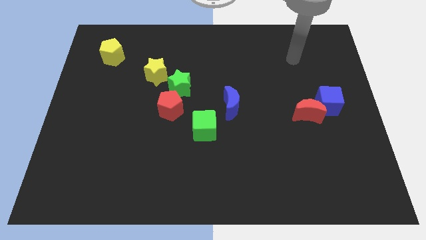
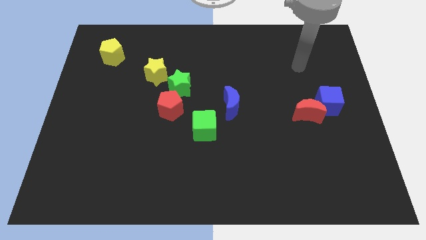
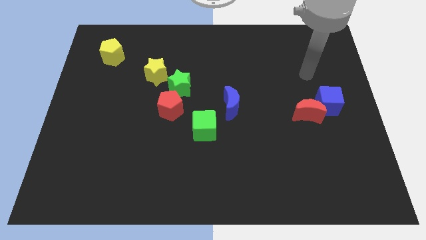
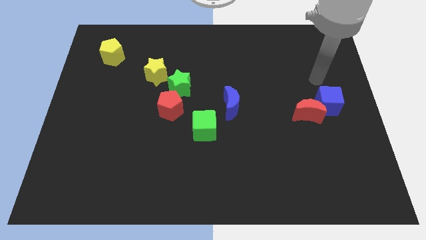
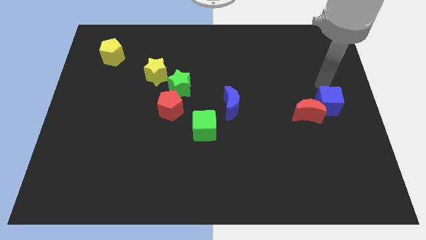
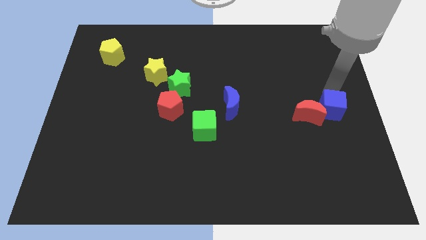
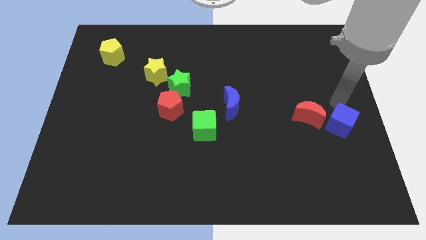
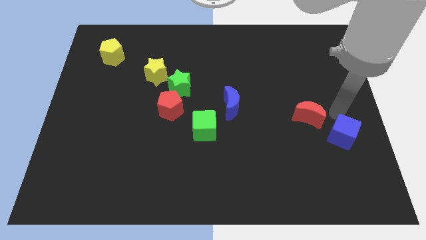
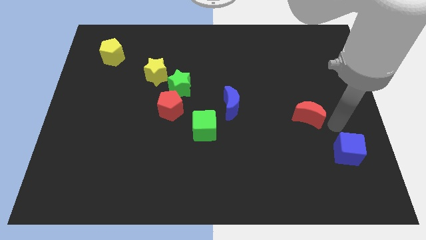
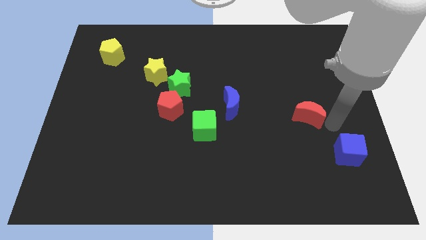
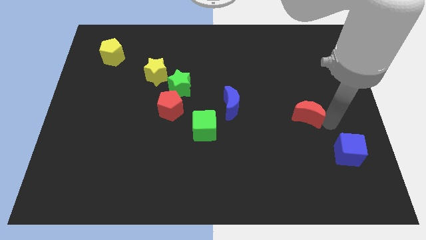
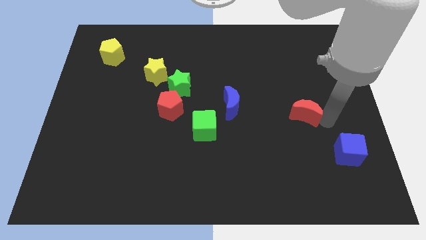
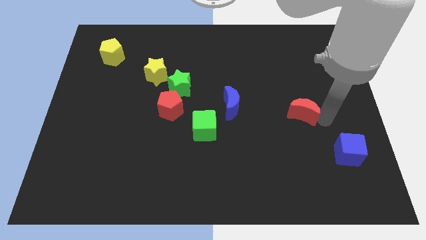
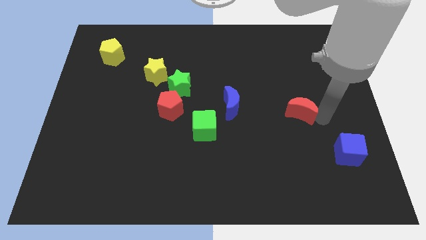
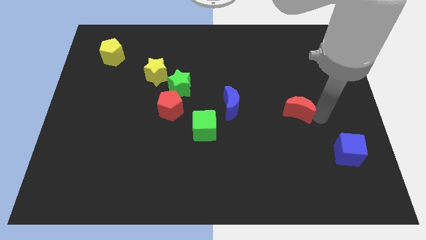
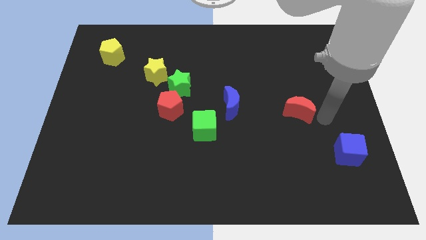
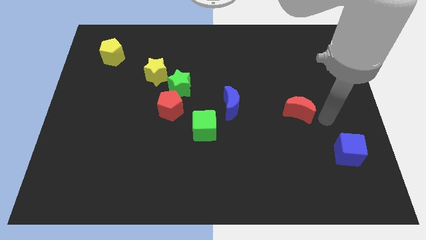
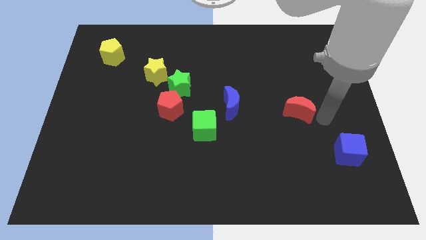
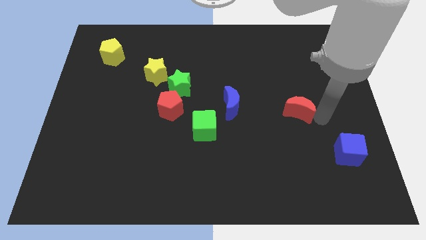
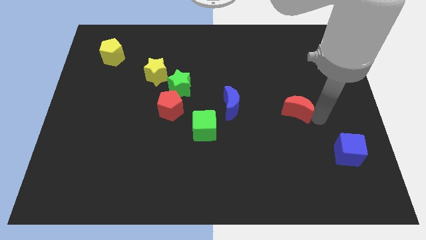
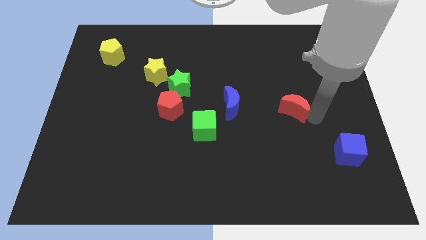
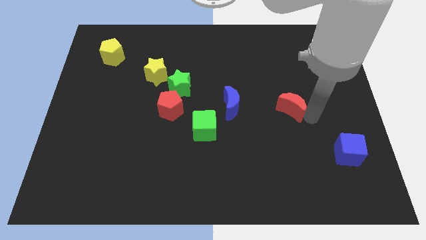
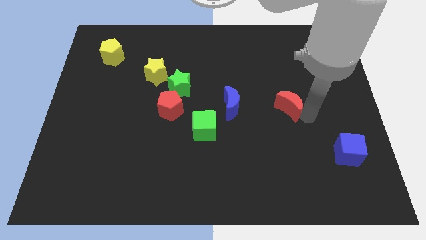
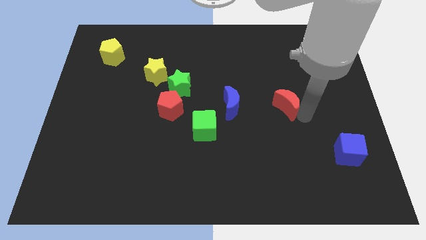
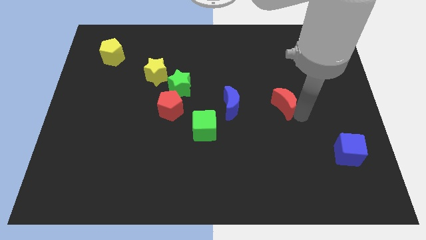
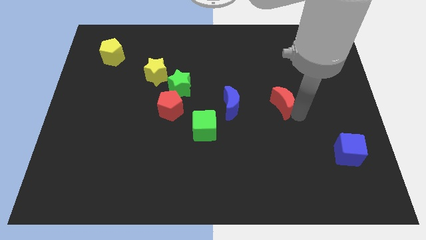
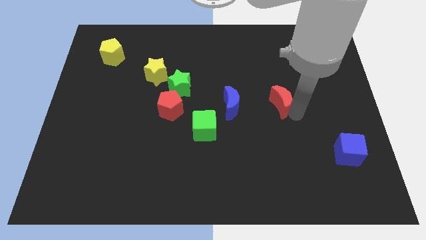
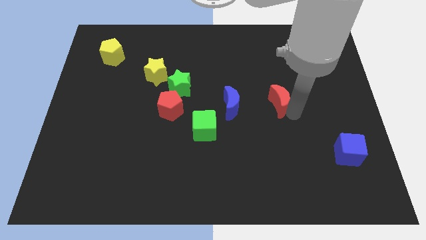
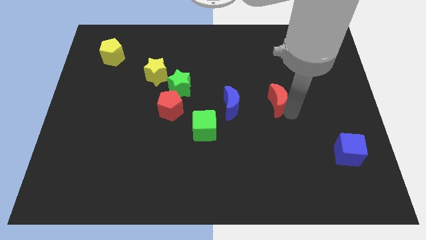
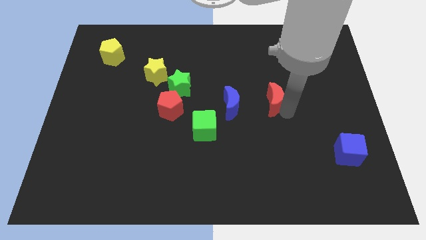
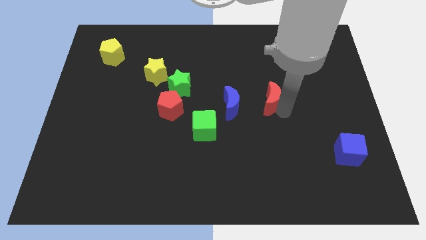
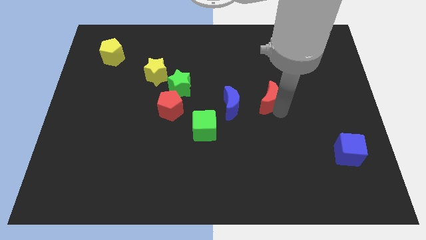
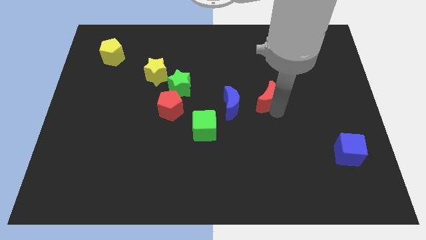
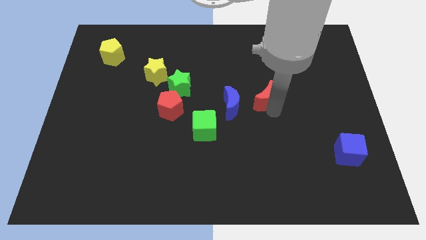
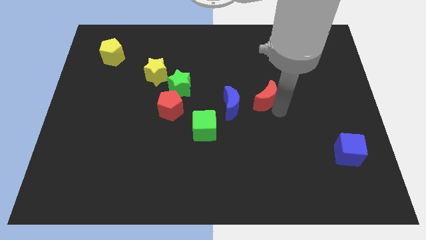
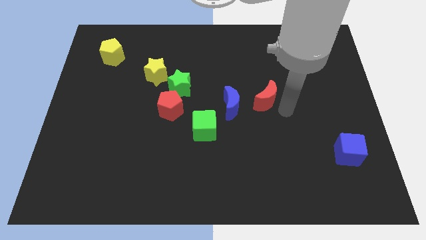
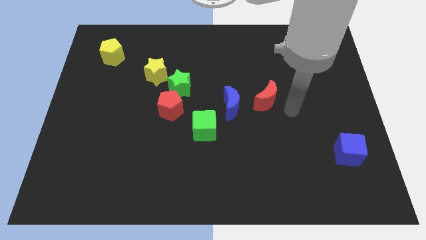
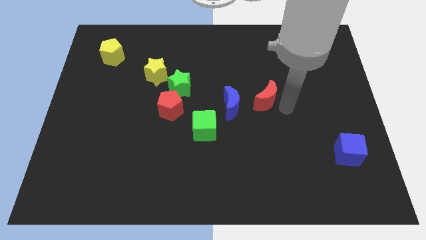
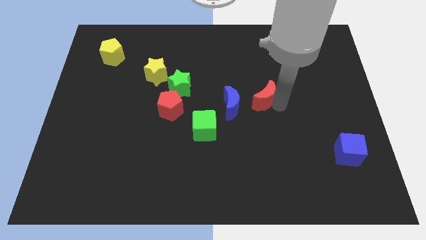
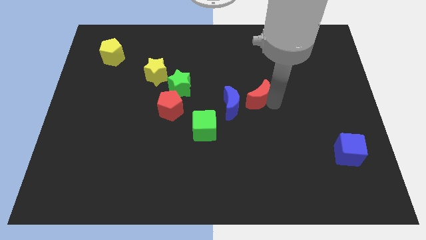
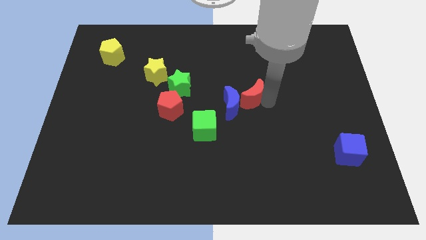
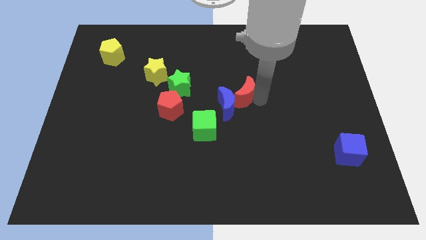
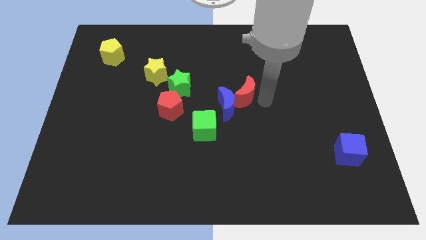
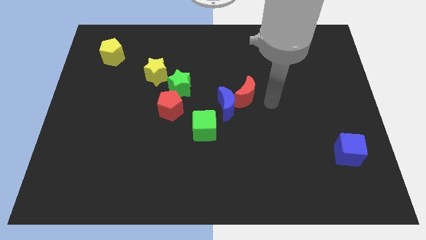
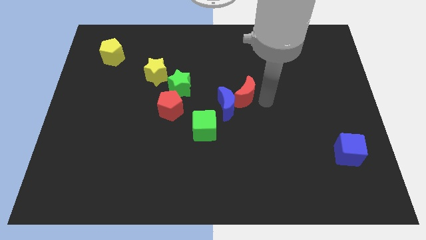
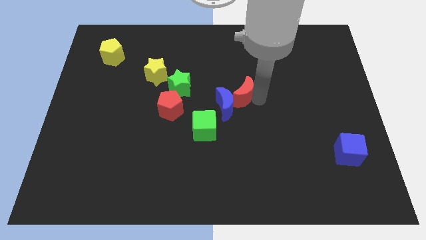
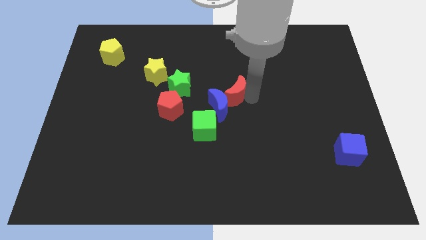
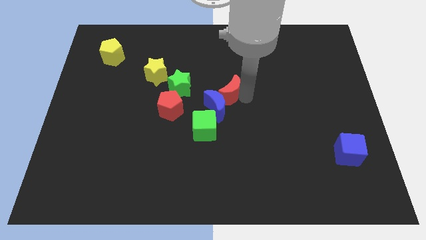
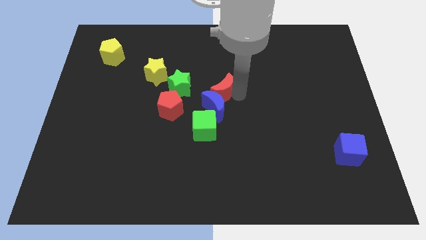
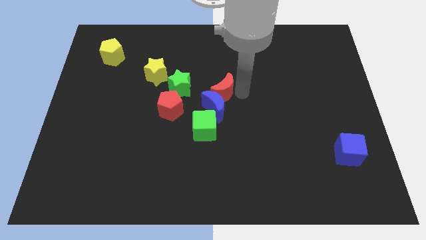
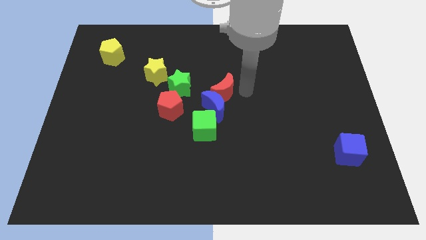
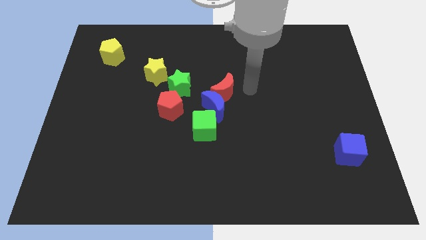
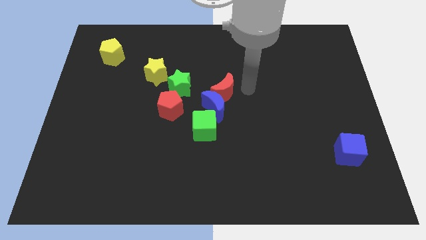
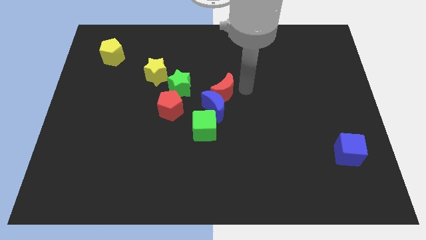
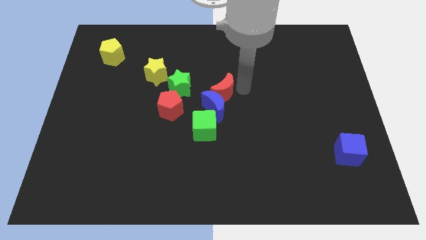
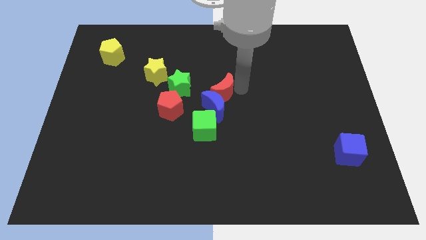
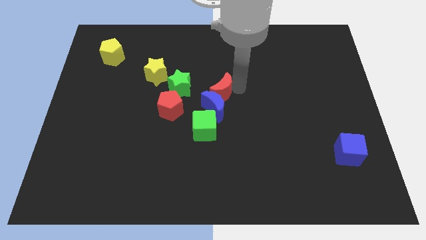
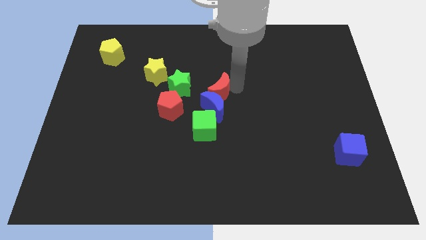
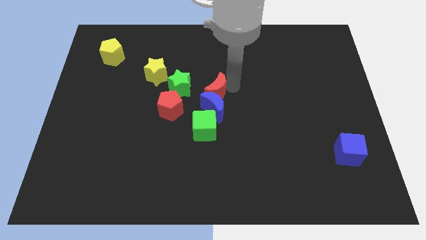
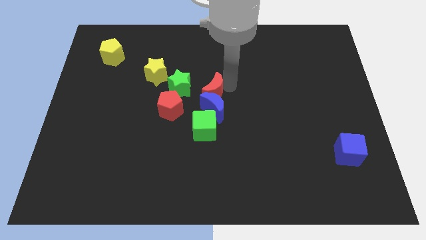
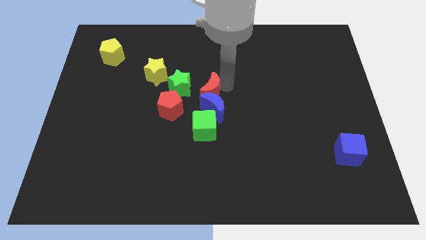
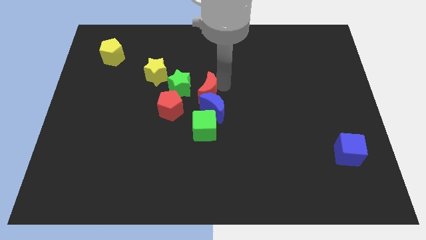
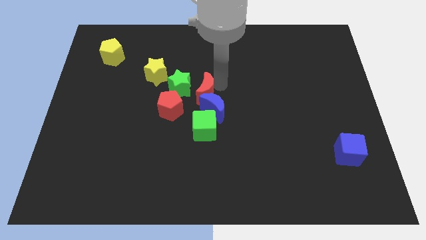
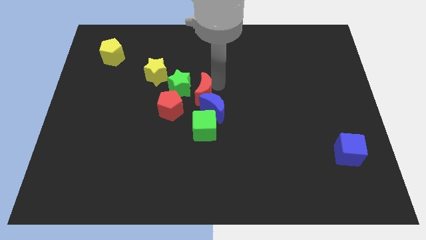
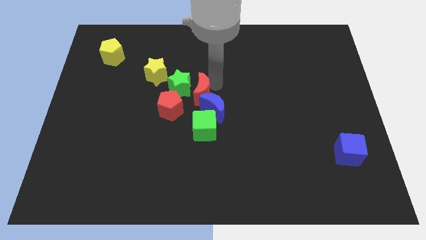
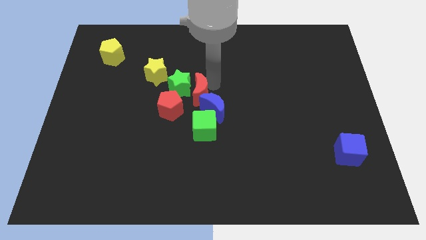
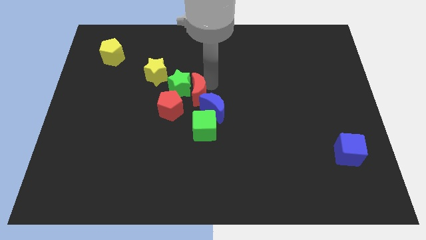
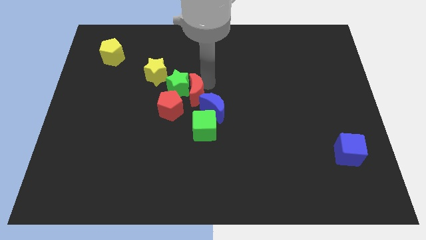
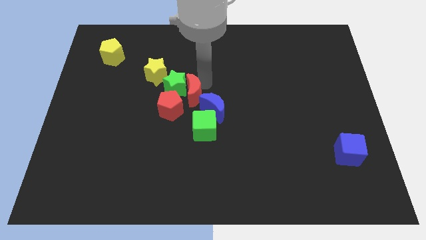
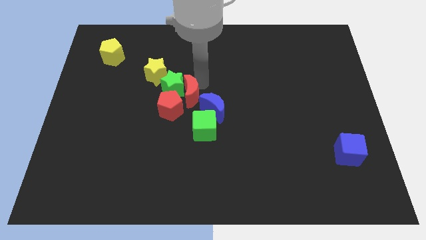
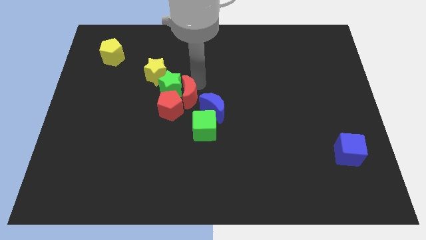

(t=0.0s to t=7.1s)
slide the red moon close to the red pentagon
